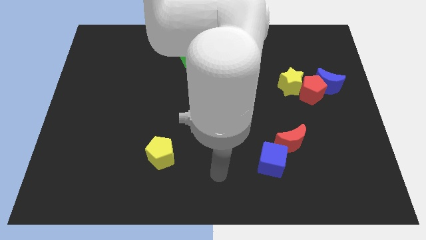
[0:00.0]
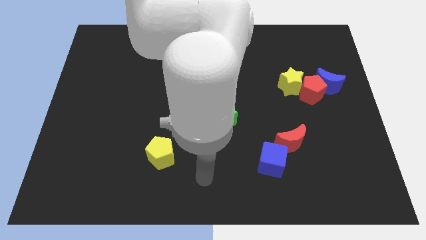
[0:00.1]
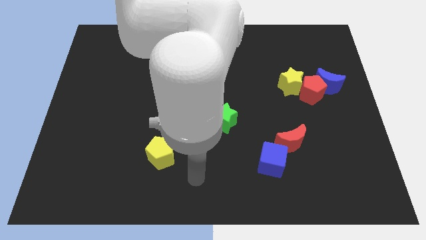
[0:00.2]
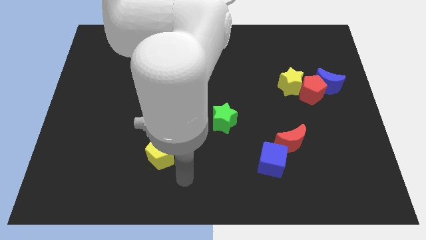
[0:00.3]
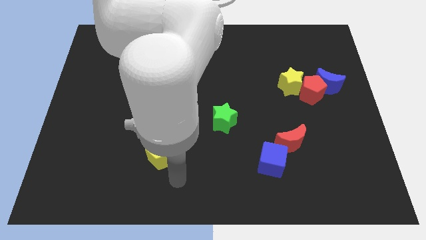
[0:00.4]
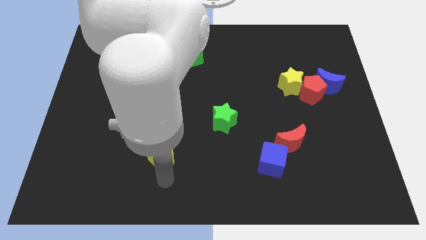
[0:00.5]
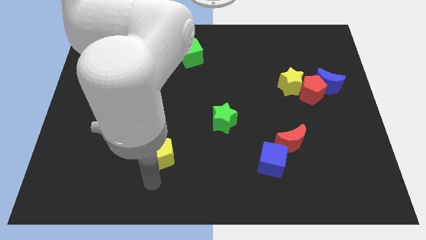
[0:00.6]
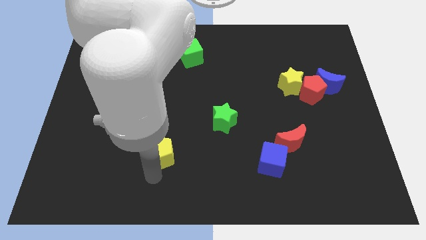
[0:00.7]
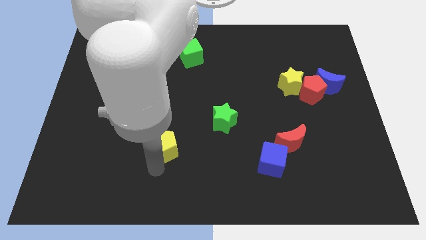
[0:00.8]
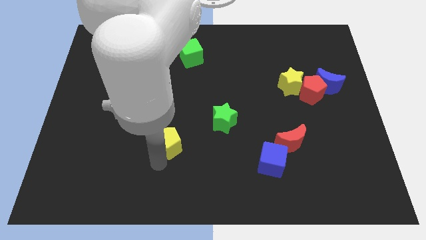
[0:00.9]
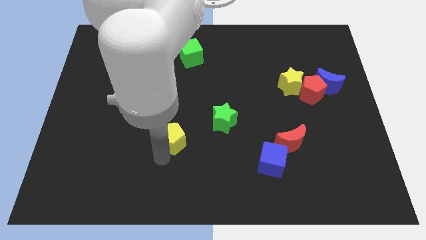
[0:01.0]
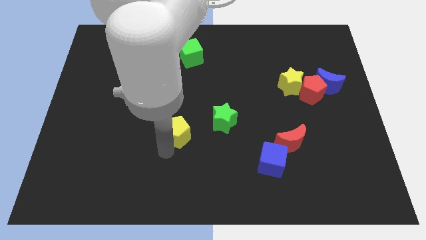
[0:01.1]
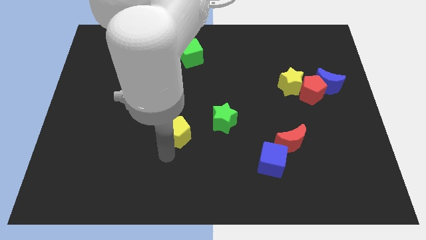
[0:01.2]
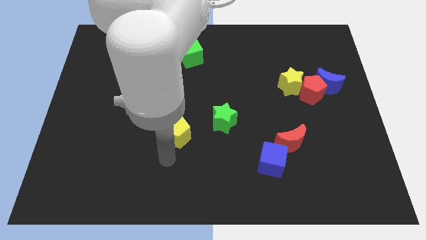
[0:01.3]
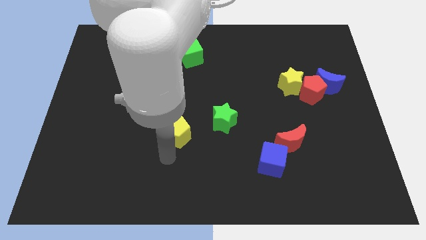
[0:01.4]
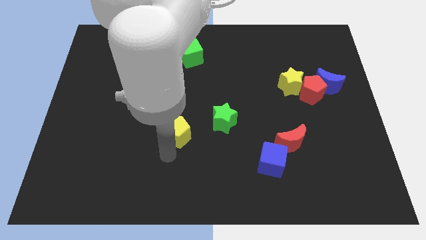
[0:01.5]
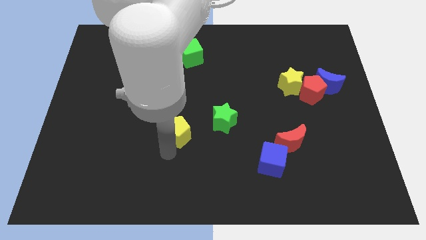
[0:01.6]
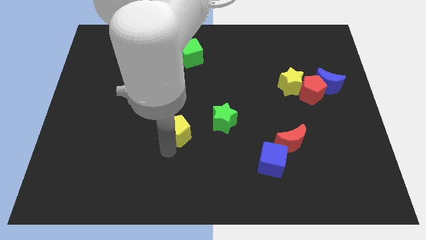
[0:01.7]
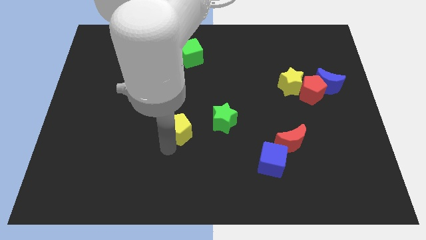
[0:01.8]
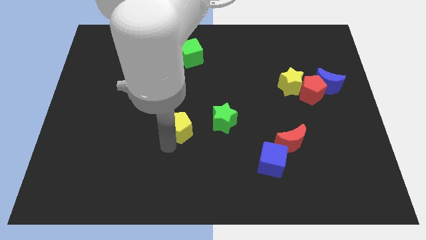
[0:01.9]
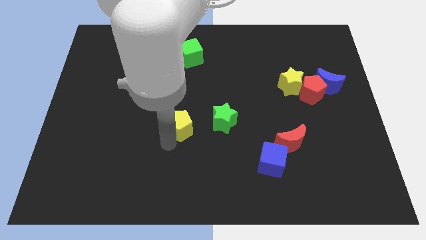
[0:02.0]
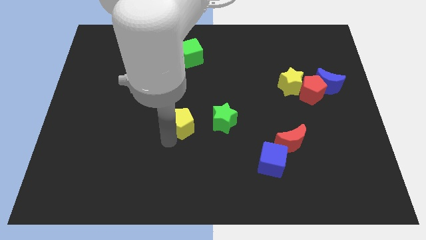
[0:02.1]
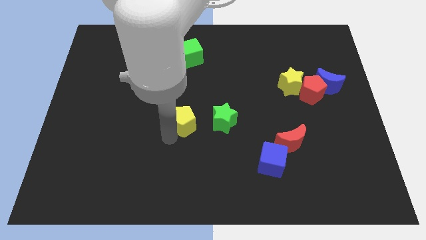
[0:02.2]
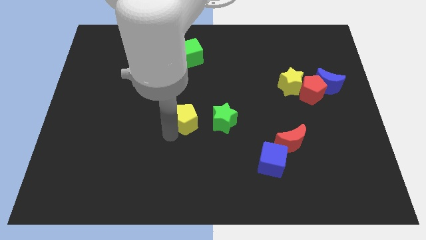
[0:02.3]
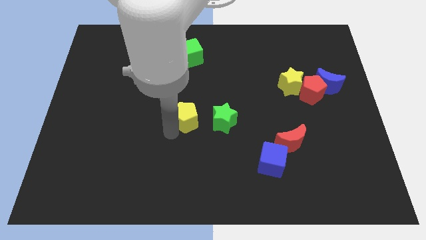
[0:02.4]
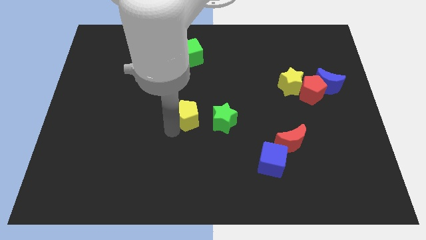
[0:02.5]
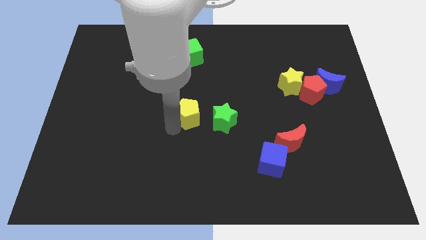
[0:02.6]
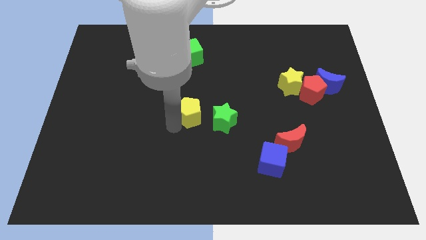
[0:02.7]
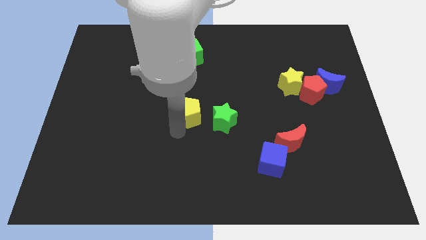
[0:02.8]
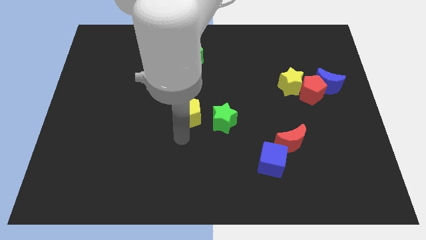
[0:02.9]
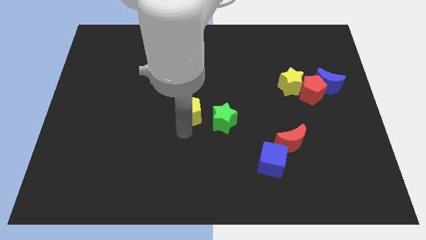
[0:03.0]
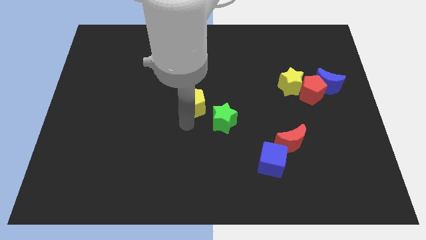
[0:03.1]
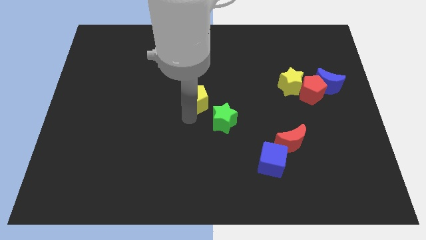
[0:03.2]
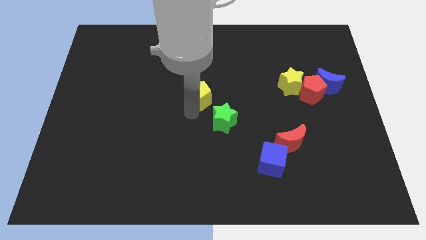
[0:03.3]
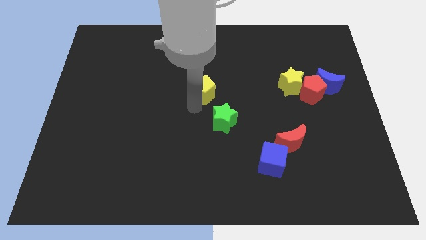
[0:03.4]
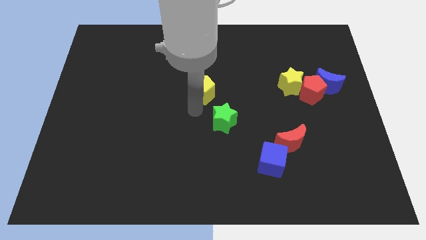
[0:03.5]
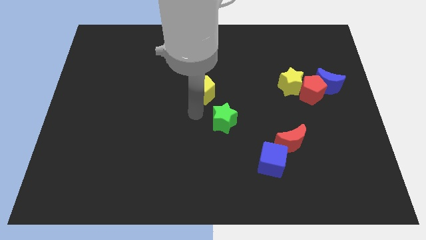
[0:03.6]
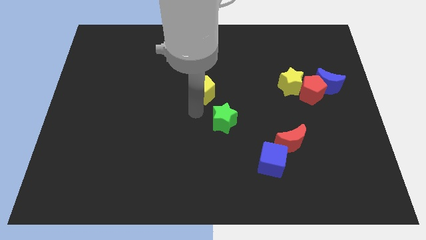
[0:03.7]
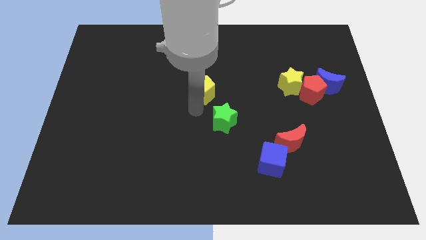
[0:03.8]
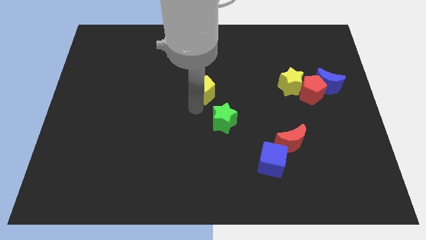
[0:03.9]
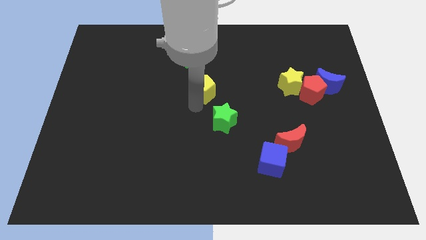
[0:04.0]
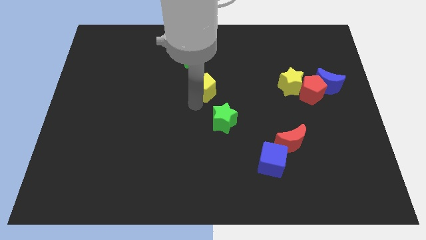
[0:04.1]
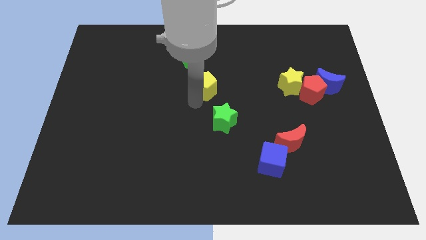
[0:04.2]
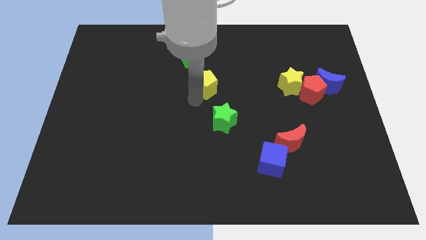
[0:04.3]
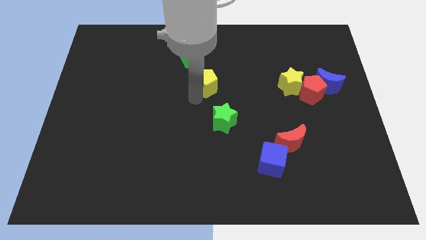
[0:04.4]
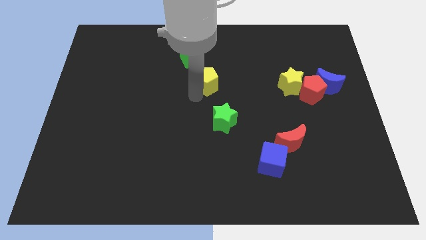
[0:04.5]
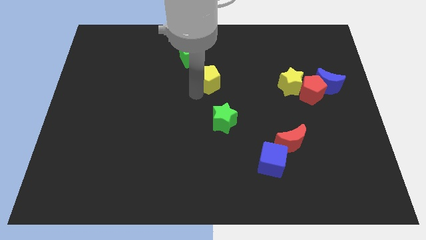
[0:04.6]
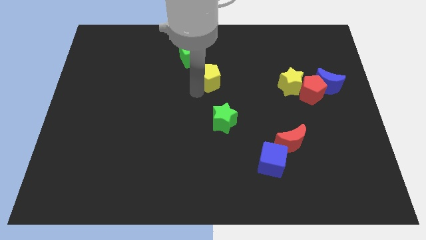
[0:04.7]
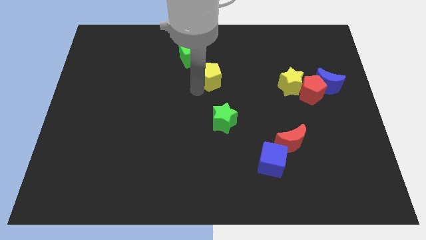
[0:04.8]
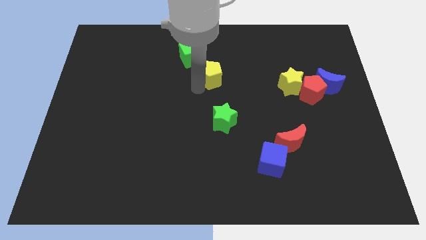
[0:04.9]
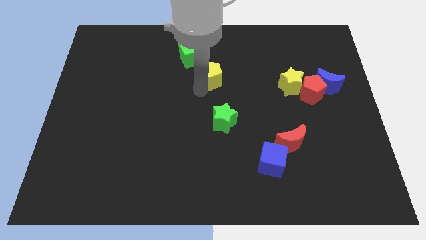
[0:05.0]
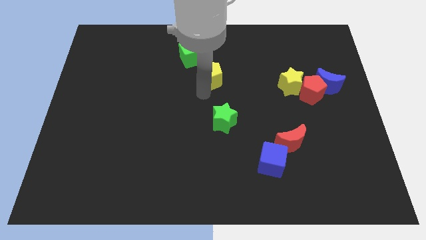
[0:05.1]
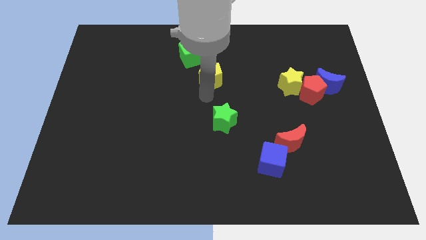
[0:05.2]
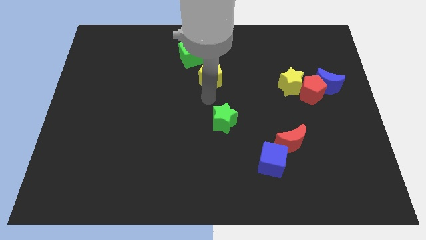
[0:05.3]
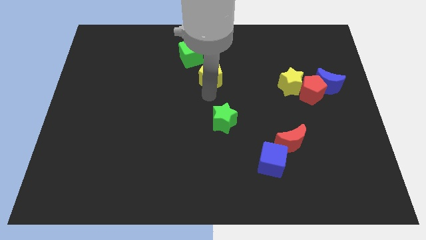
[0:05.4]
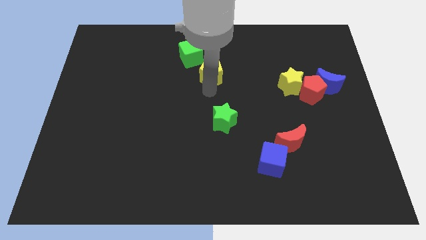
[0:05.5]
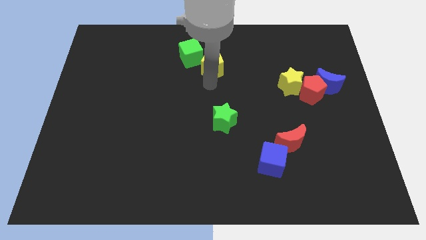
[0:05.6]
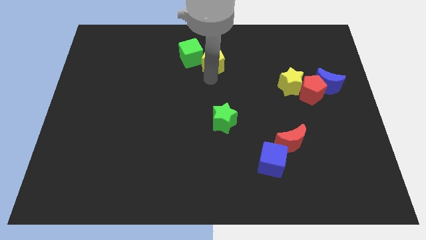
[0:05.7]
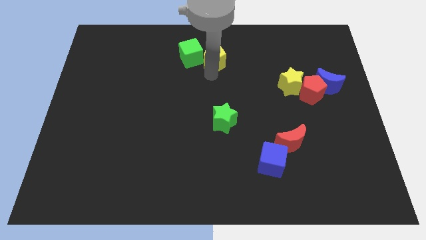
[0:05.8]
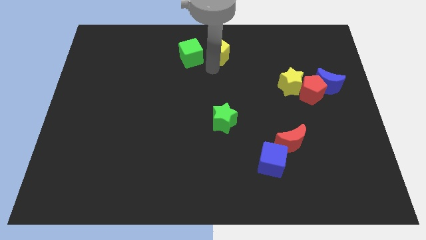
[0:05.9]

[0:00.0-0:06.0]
move the yellow pentagon to the top
